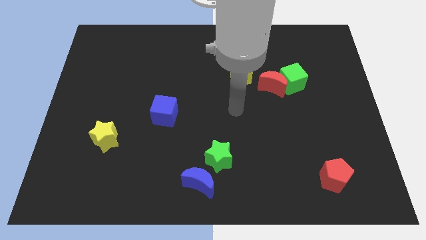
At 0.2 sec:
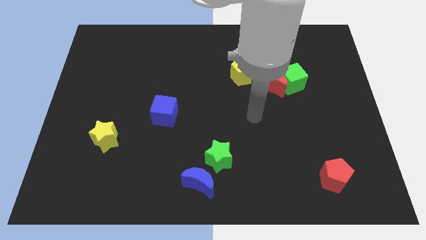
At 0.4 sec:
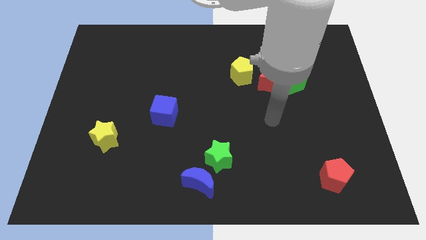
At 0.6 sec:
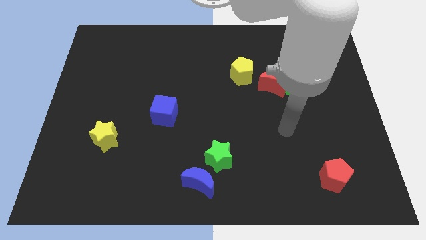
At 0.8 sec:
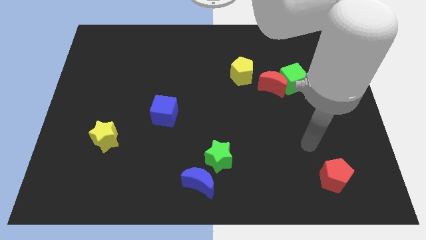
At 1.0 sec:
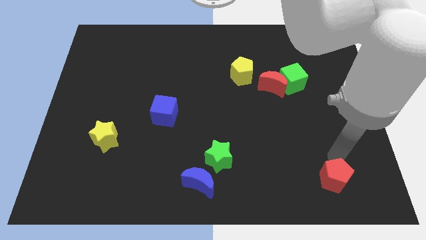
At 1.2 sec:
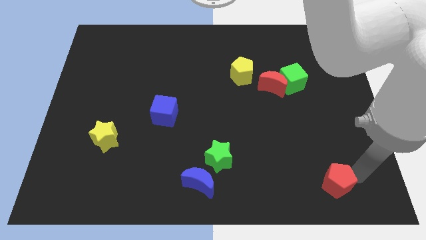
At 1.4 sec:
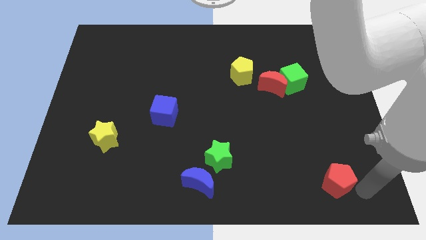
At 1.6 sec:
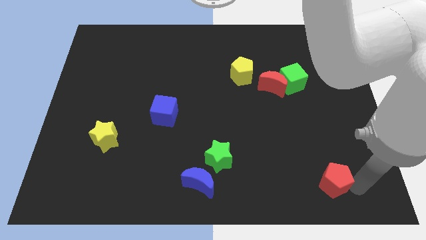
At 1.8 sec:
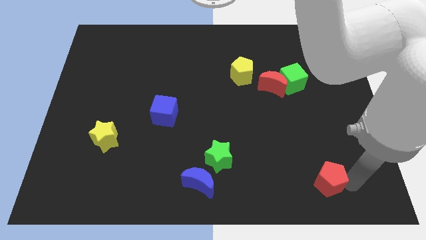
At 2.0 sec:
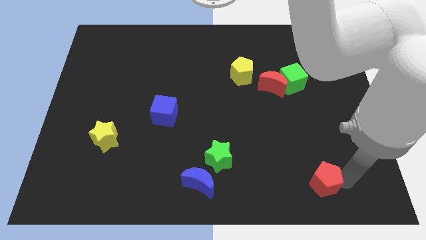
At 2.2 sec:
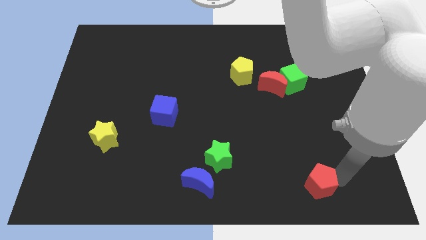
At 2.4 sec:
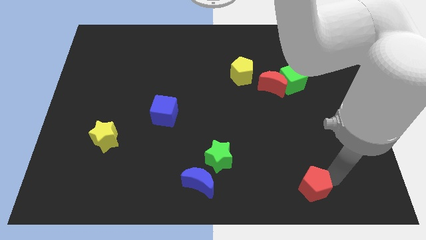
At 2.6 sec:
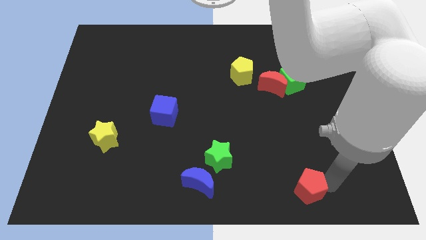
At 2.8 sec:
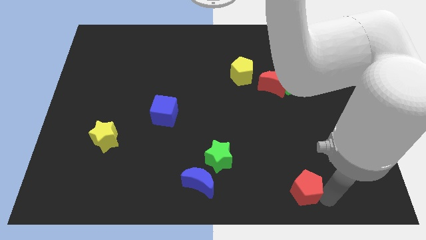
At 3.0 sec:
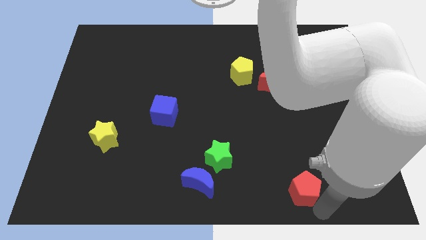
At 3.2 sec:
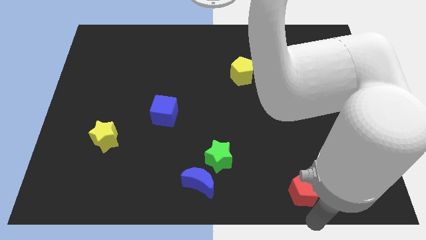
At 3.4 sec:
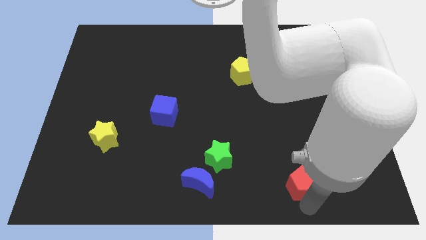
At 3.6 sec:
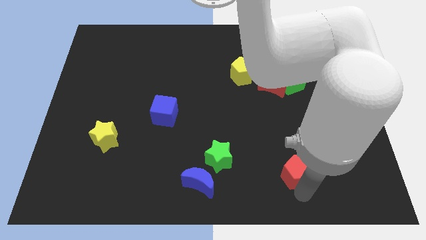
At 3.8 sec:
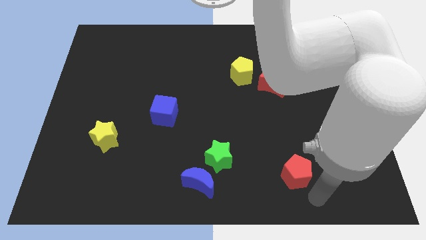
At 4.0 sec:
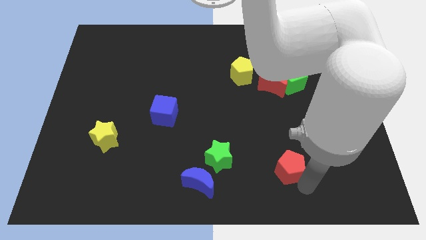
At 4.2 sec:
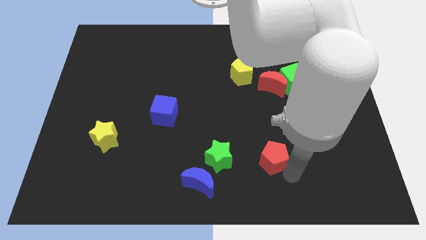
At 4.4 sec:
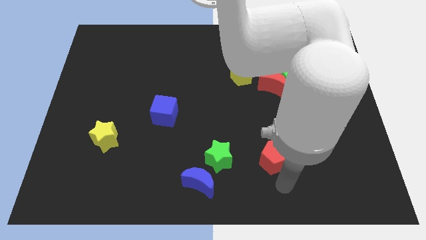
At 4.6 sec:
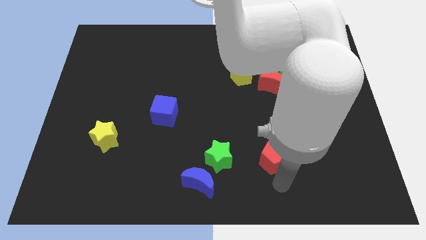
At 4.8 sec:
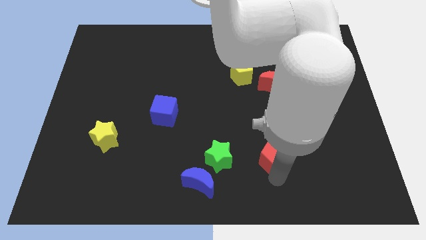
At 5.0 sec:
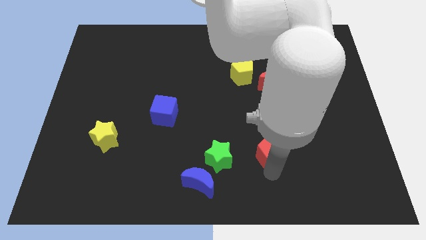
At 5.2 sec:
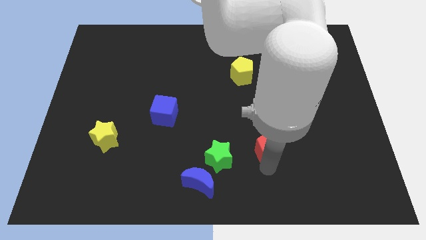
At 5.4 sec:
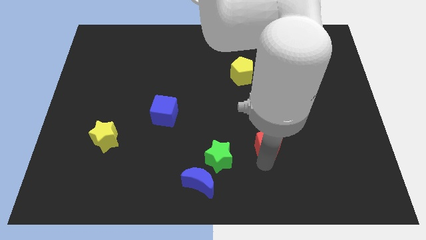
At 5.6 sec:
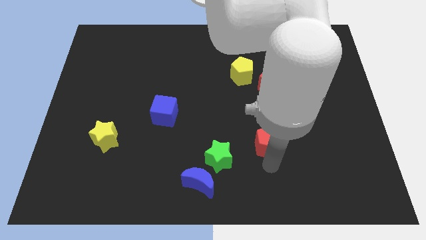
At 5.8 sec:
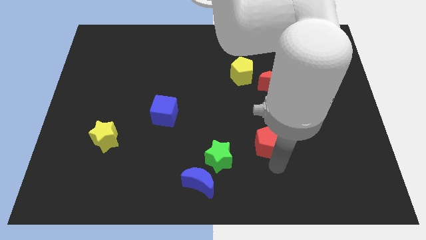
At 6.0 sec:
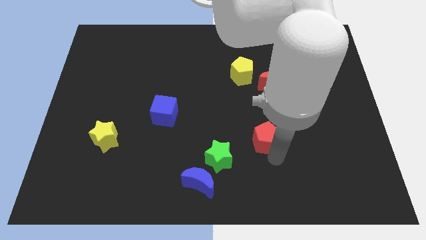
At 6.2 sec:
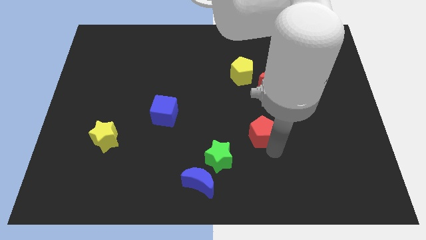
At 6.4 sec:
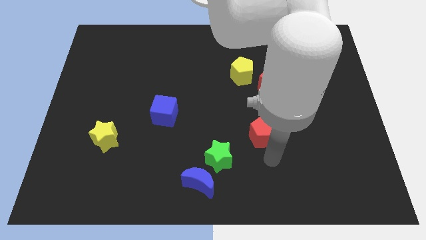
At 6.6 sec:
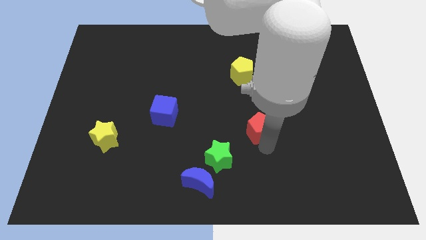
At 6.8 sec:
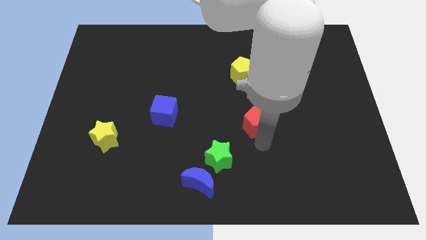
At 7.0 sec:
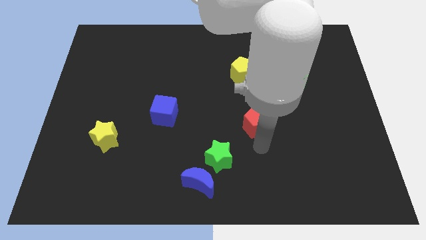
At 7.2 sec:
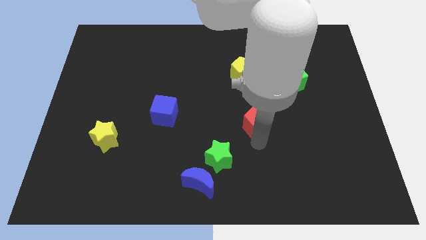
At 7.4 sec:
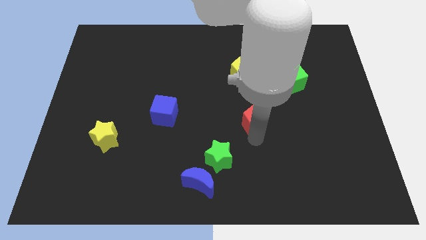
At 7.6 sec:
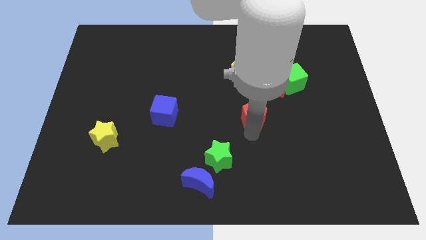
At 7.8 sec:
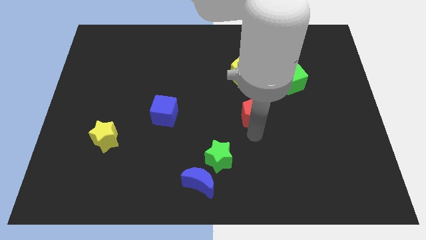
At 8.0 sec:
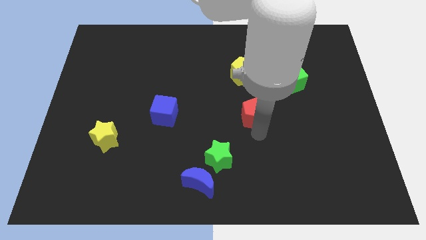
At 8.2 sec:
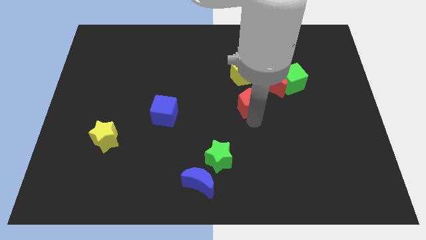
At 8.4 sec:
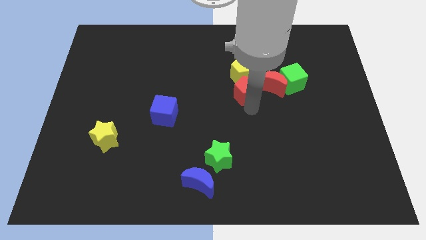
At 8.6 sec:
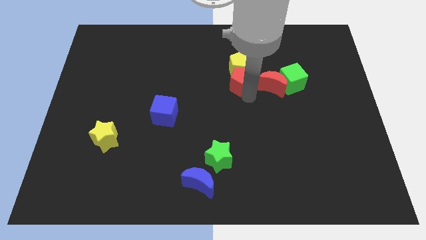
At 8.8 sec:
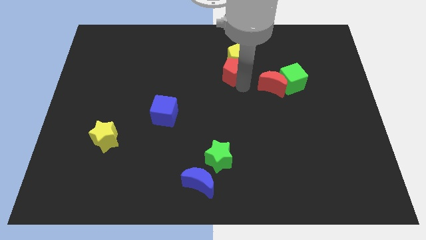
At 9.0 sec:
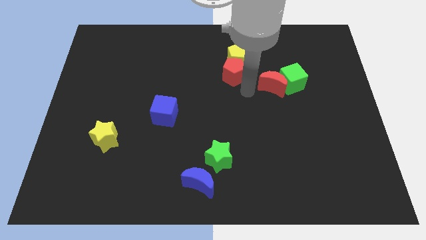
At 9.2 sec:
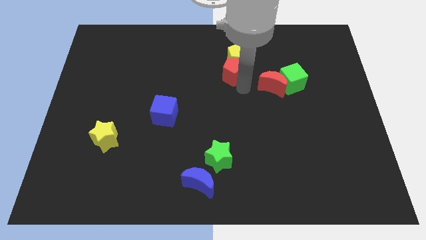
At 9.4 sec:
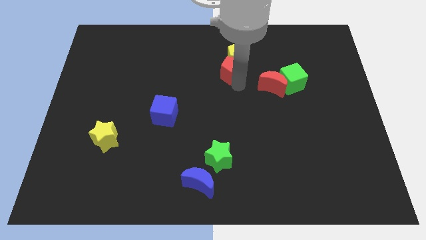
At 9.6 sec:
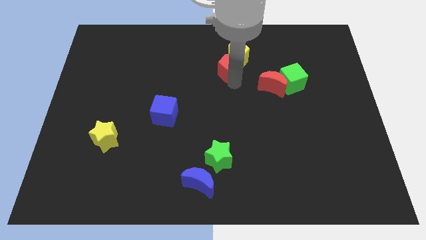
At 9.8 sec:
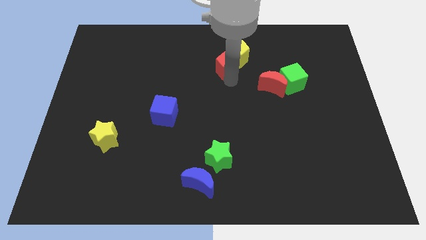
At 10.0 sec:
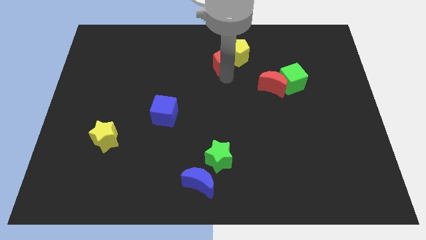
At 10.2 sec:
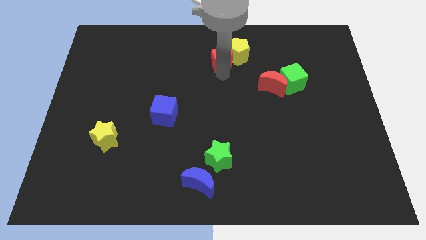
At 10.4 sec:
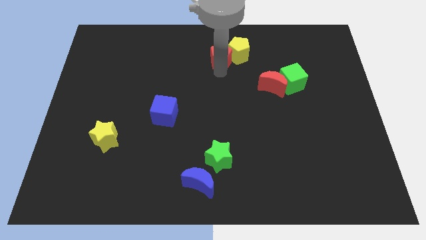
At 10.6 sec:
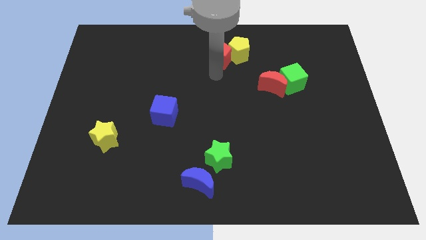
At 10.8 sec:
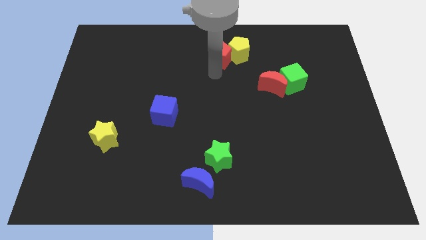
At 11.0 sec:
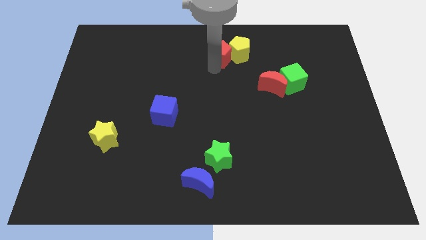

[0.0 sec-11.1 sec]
put the red pentagon to the top side

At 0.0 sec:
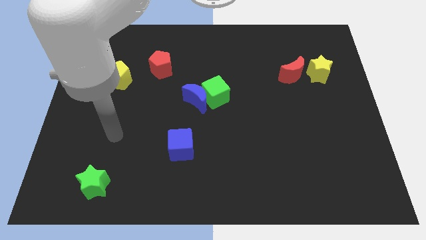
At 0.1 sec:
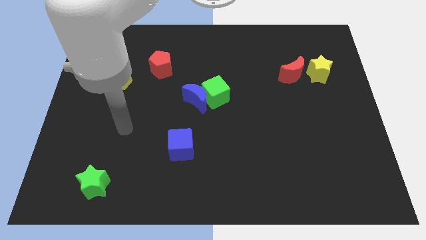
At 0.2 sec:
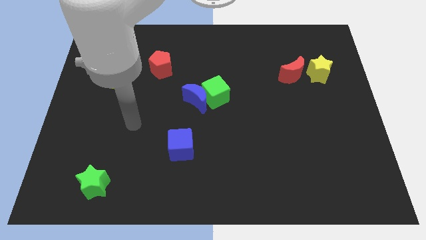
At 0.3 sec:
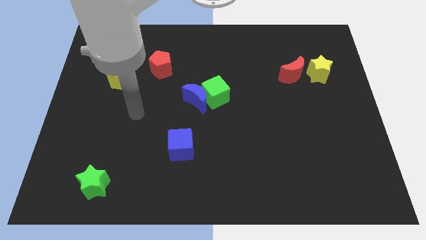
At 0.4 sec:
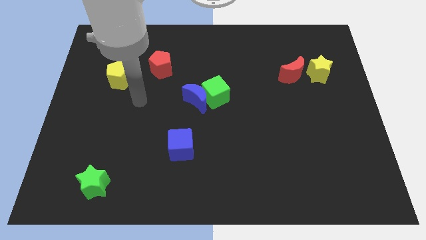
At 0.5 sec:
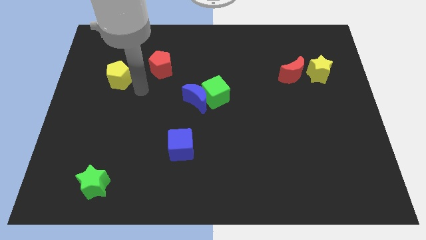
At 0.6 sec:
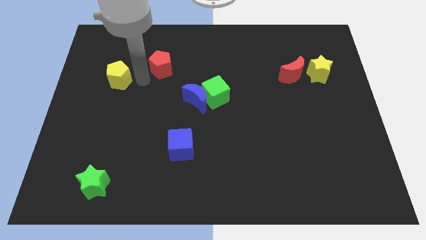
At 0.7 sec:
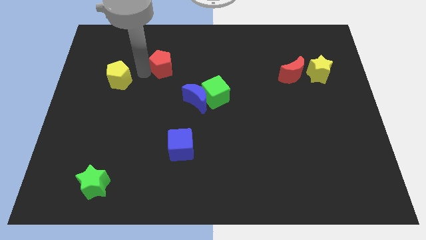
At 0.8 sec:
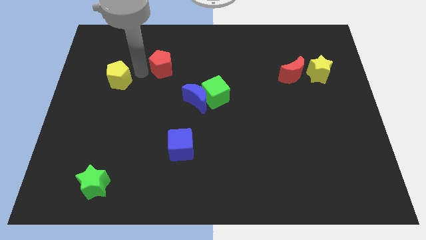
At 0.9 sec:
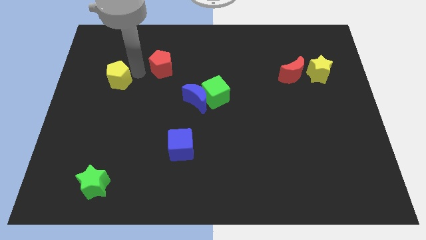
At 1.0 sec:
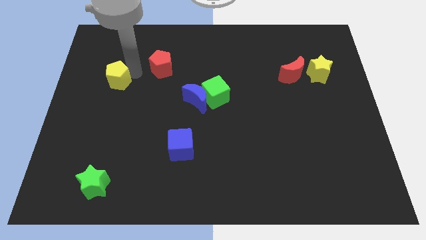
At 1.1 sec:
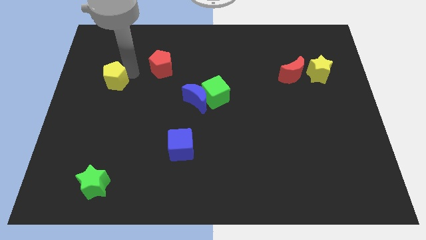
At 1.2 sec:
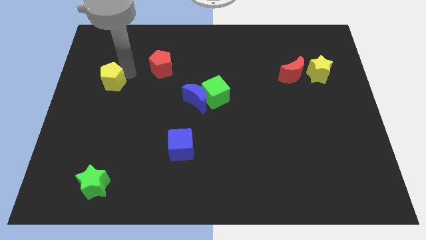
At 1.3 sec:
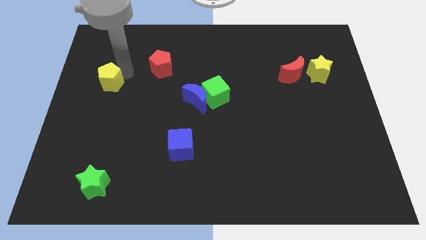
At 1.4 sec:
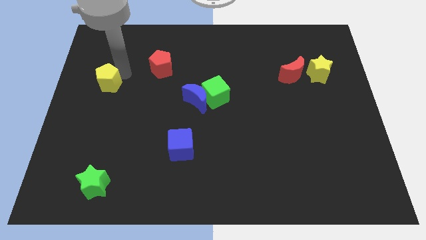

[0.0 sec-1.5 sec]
put the yellow pentagon to the left side of the board

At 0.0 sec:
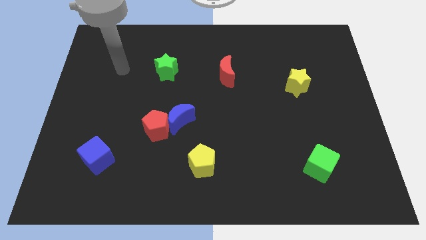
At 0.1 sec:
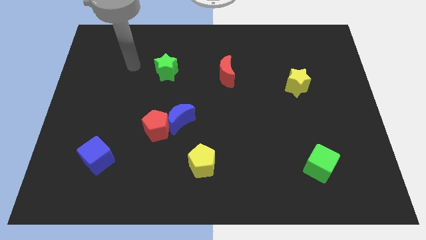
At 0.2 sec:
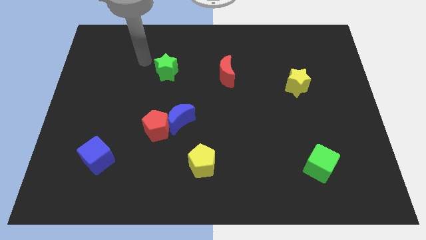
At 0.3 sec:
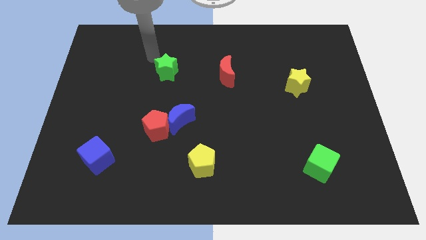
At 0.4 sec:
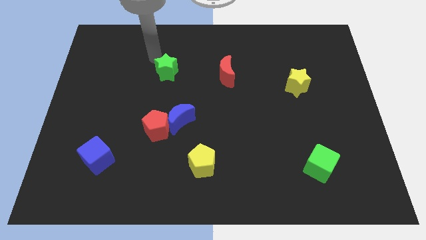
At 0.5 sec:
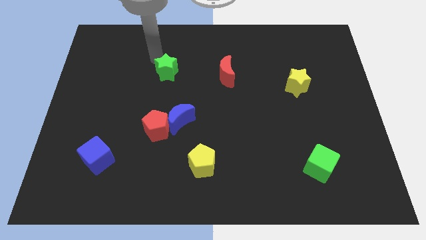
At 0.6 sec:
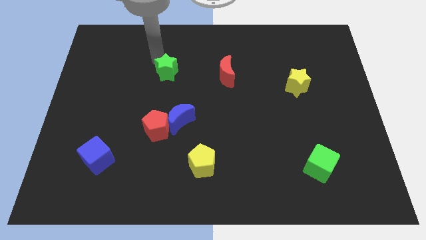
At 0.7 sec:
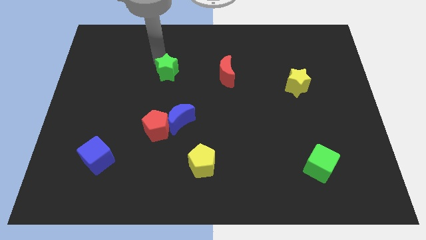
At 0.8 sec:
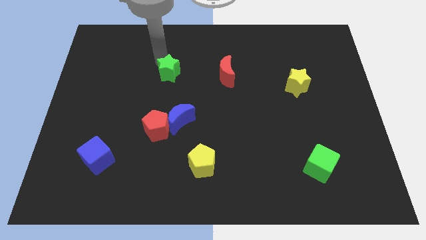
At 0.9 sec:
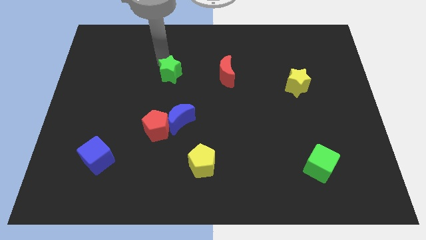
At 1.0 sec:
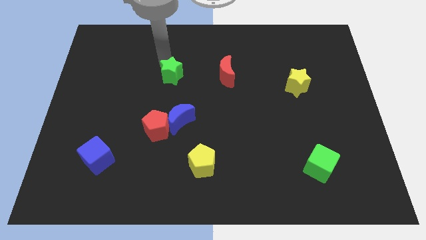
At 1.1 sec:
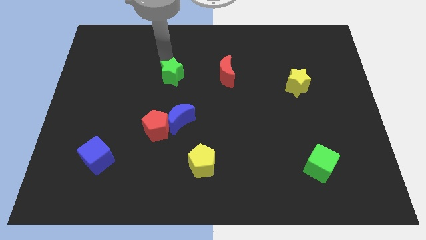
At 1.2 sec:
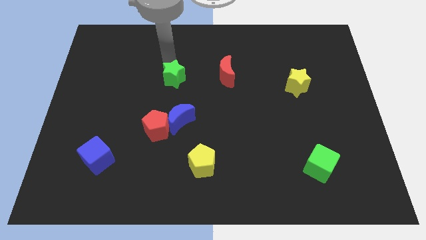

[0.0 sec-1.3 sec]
put the green star to the center of the board
